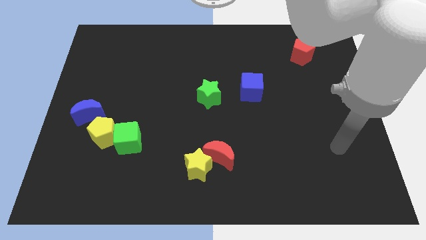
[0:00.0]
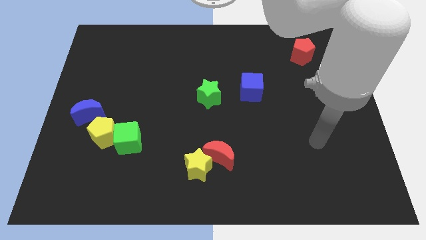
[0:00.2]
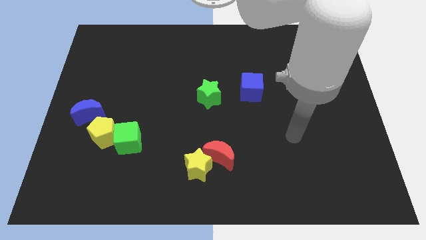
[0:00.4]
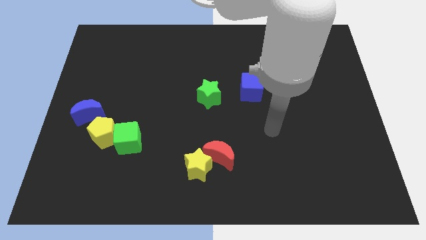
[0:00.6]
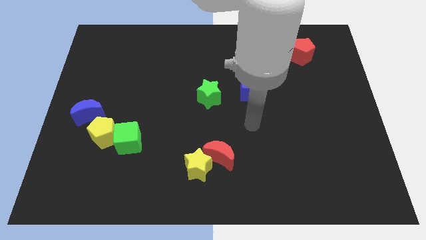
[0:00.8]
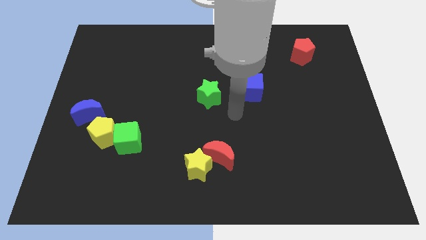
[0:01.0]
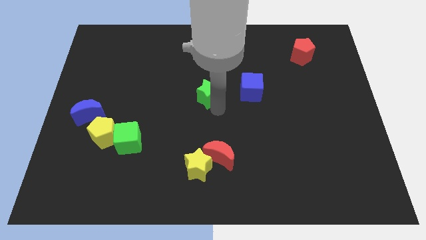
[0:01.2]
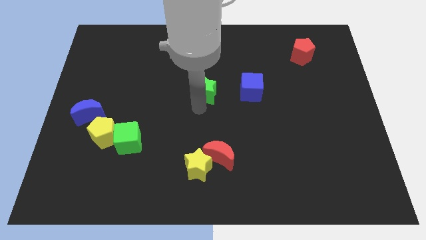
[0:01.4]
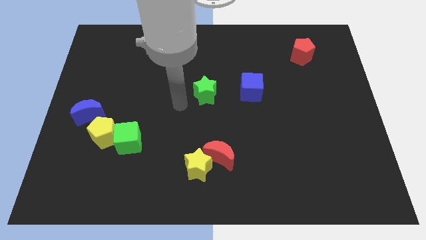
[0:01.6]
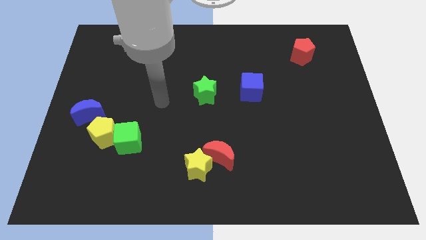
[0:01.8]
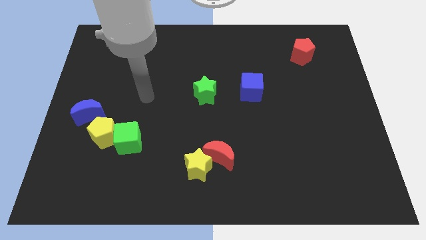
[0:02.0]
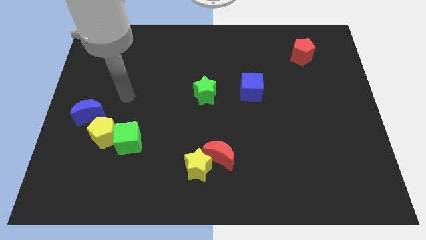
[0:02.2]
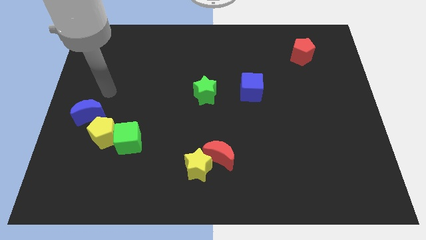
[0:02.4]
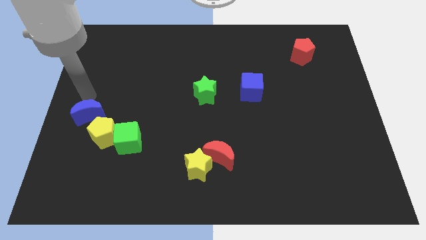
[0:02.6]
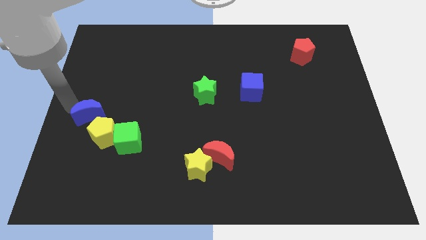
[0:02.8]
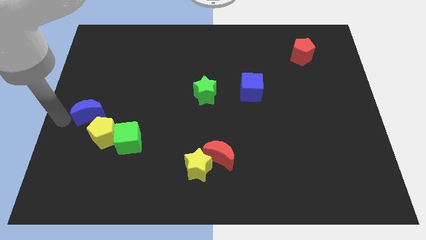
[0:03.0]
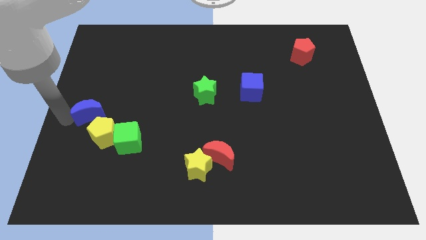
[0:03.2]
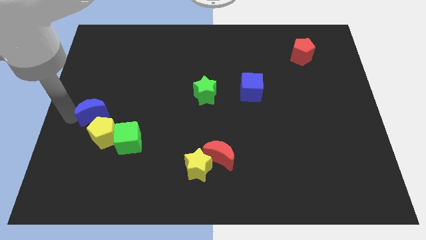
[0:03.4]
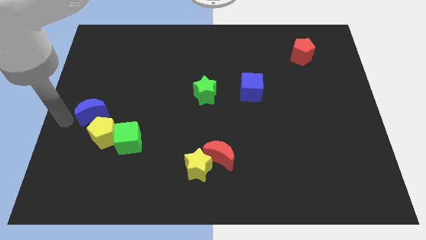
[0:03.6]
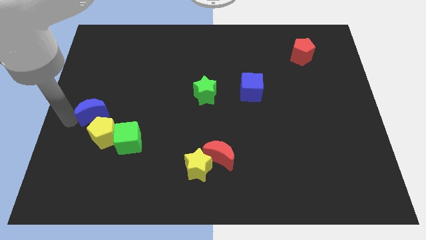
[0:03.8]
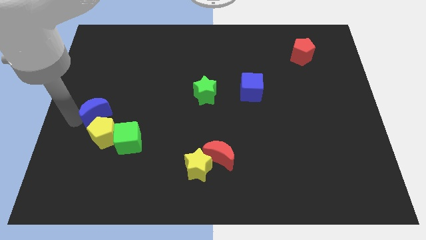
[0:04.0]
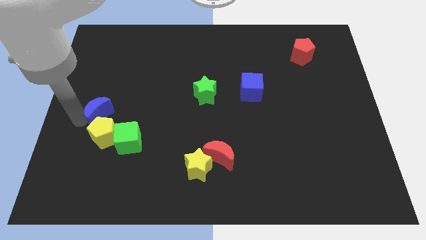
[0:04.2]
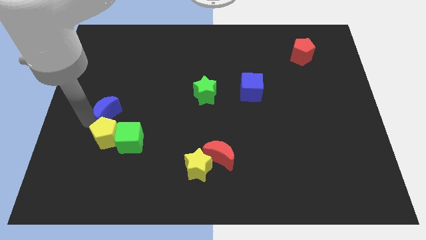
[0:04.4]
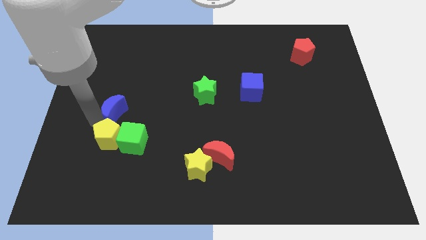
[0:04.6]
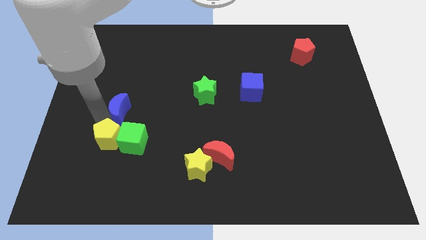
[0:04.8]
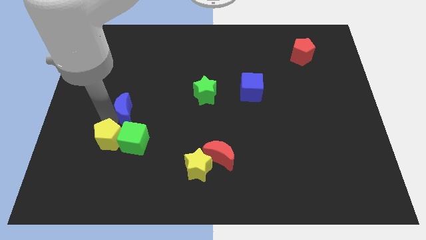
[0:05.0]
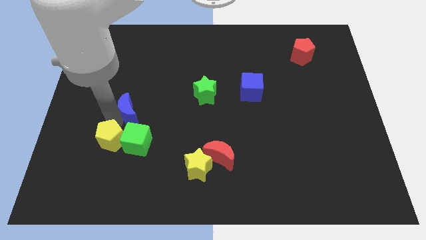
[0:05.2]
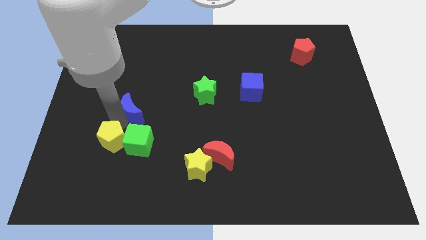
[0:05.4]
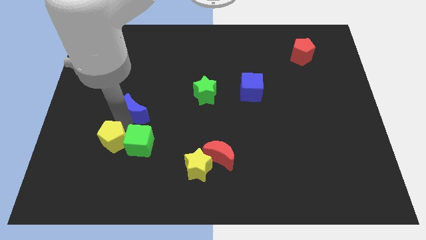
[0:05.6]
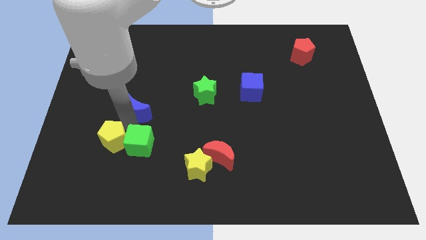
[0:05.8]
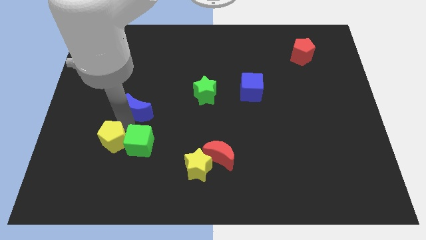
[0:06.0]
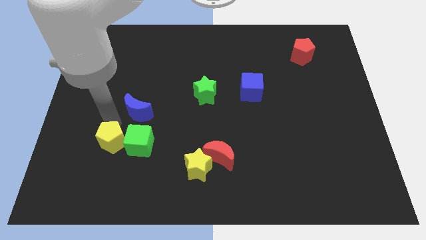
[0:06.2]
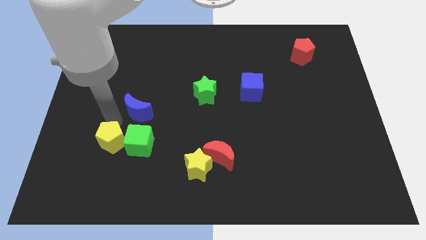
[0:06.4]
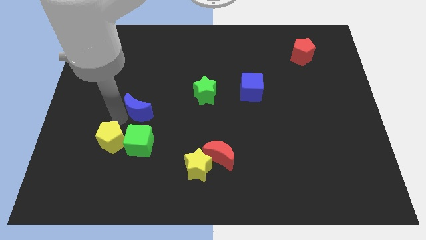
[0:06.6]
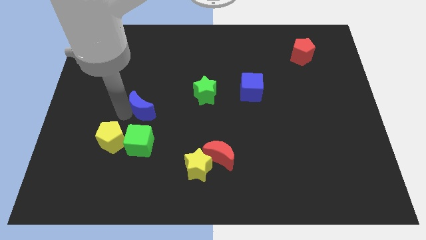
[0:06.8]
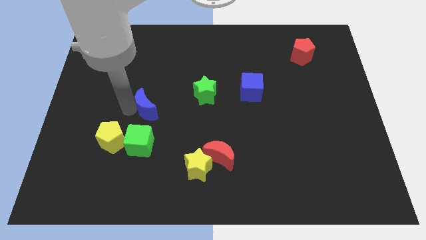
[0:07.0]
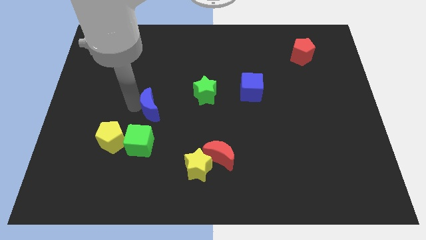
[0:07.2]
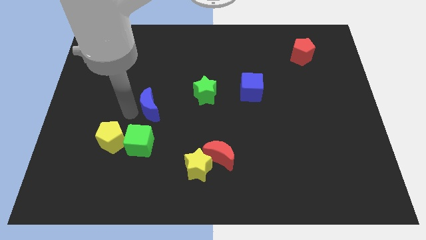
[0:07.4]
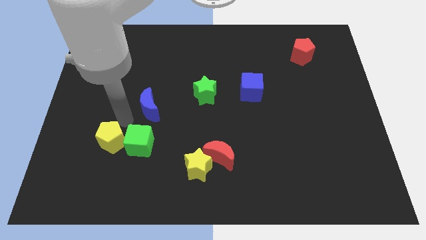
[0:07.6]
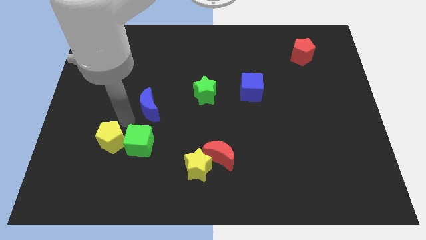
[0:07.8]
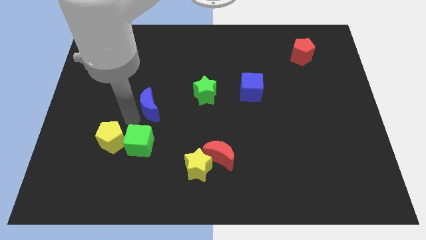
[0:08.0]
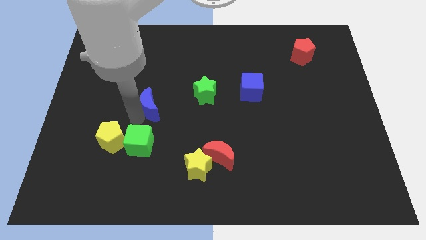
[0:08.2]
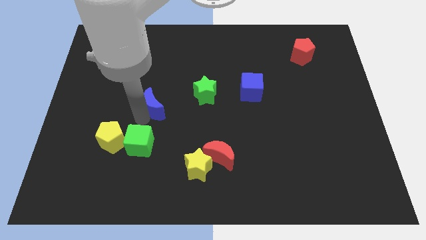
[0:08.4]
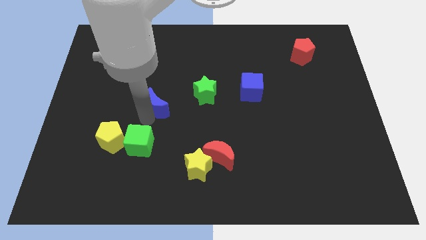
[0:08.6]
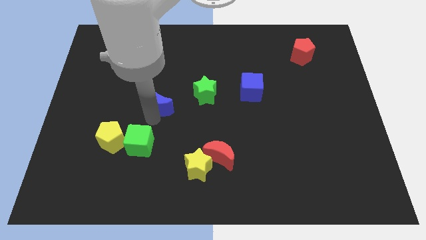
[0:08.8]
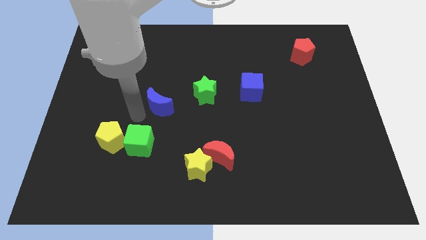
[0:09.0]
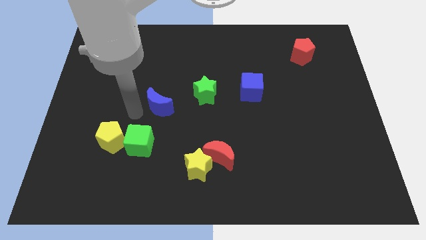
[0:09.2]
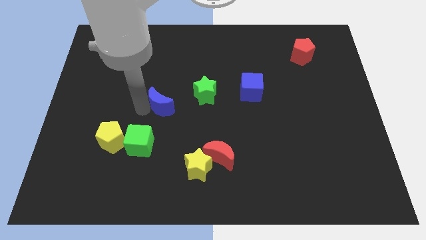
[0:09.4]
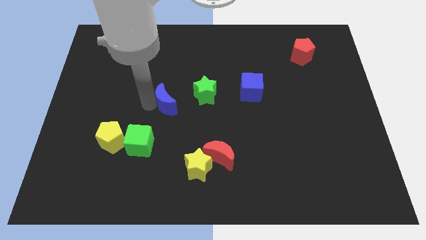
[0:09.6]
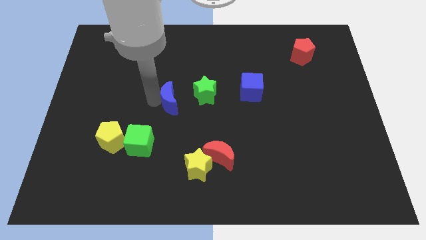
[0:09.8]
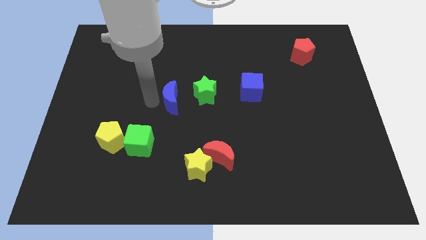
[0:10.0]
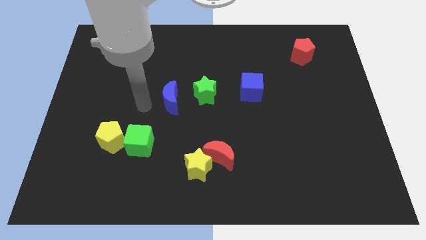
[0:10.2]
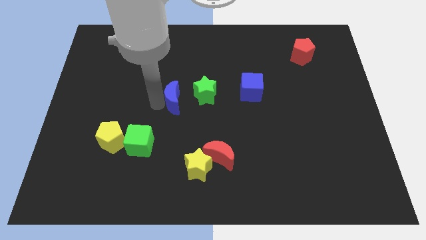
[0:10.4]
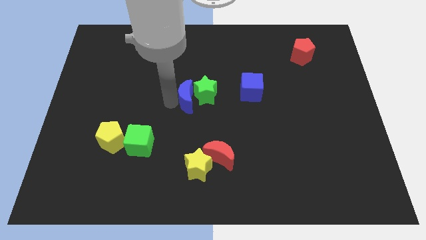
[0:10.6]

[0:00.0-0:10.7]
slide the blue moon to the green star

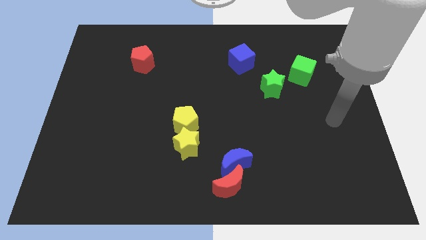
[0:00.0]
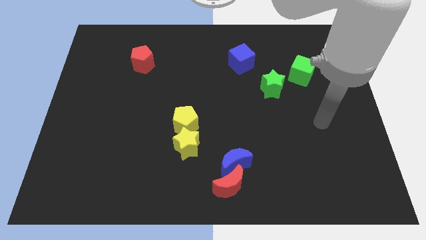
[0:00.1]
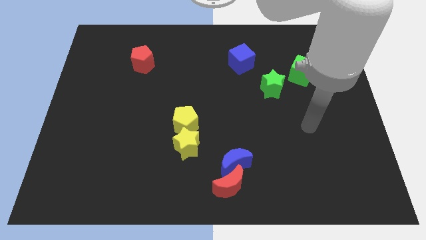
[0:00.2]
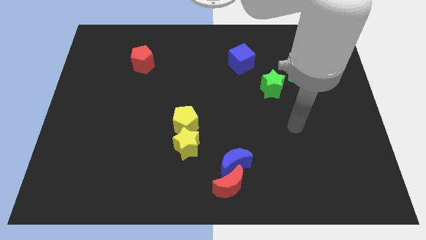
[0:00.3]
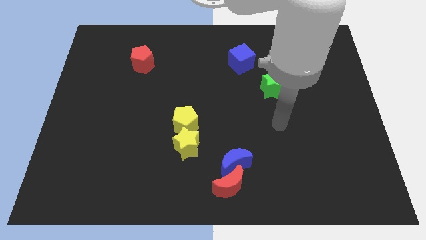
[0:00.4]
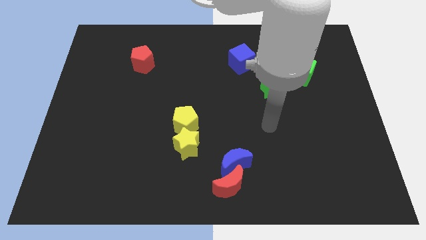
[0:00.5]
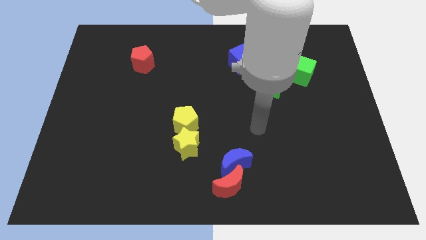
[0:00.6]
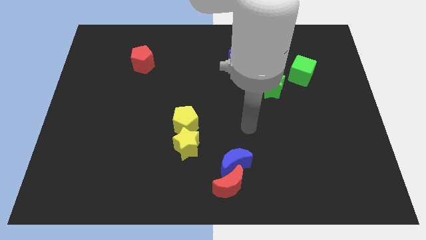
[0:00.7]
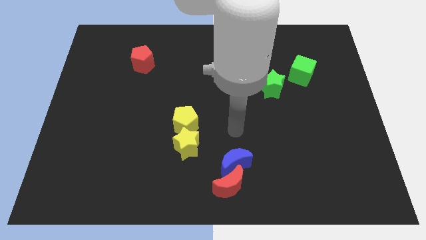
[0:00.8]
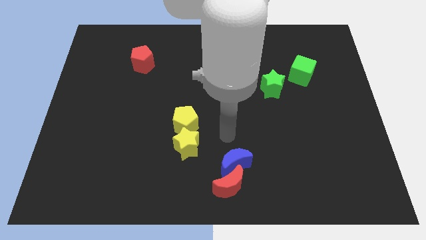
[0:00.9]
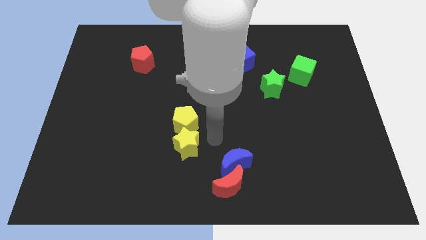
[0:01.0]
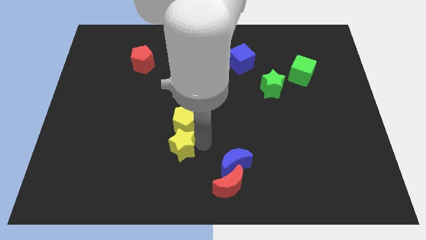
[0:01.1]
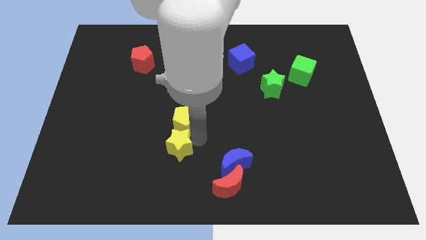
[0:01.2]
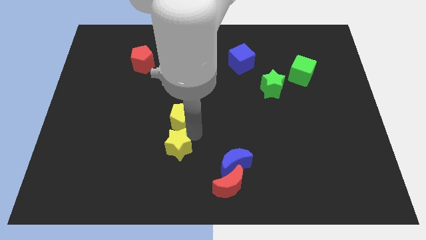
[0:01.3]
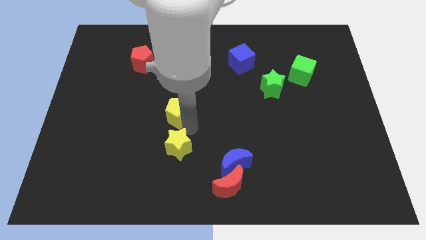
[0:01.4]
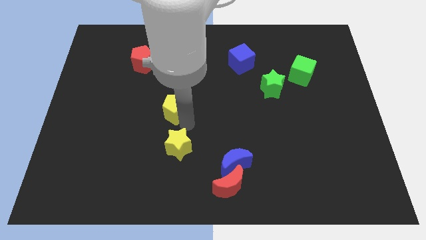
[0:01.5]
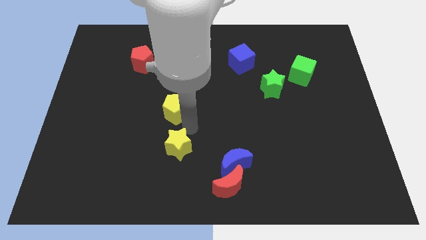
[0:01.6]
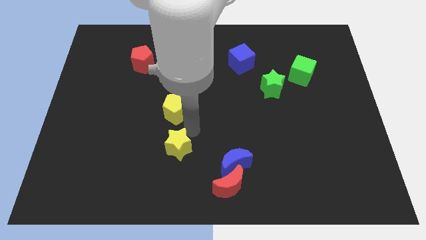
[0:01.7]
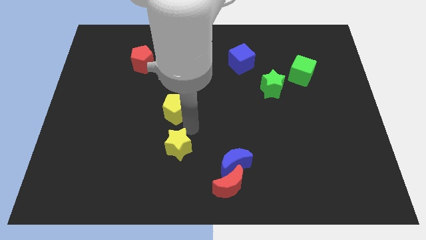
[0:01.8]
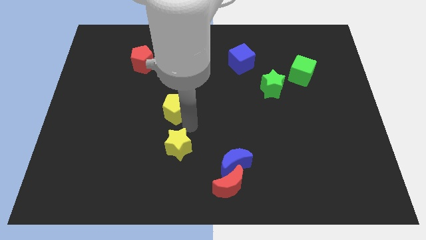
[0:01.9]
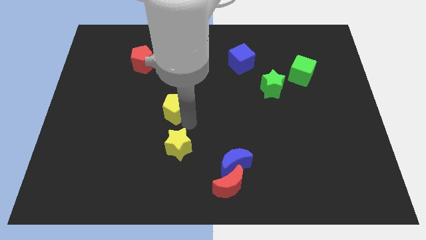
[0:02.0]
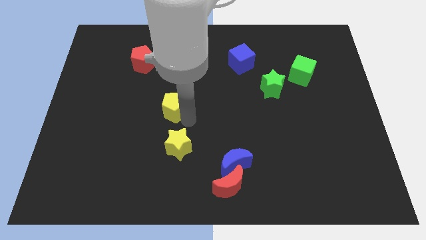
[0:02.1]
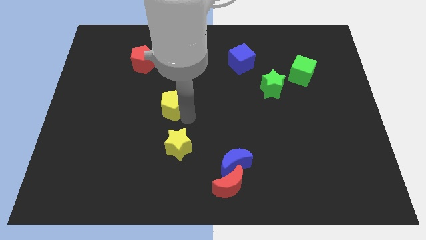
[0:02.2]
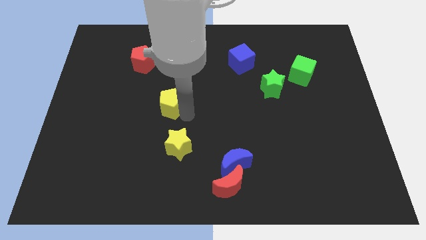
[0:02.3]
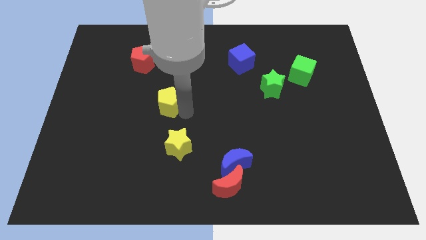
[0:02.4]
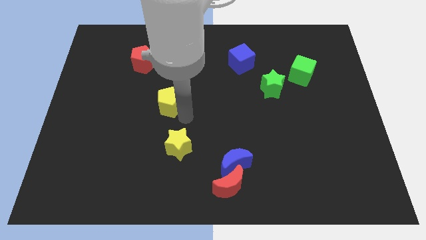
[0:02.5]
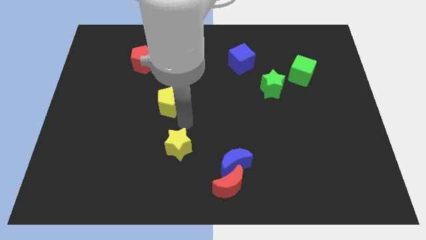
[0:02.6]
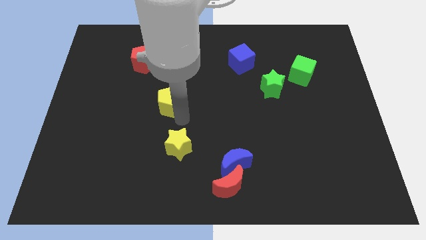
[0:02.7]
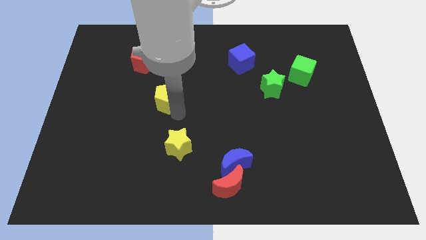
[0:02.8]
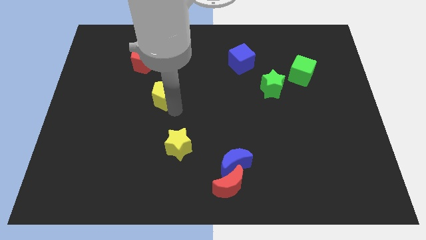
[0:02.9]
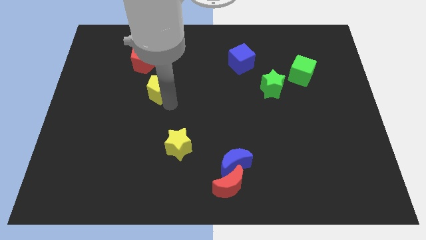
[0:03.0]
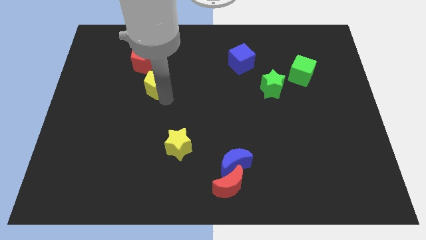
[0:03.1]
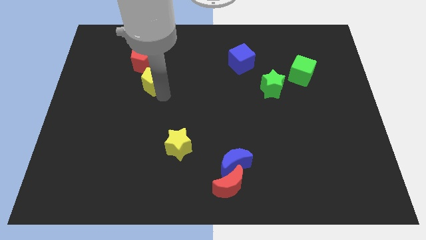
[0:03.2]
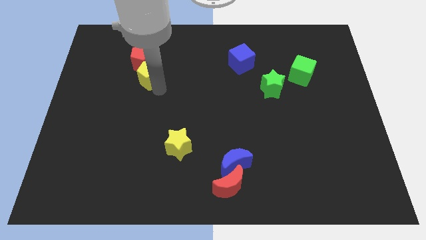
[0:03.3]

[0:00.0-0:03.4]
put the yellow pentagon to the red pentagon
